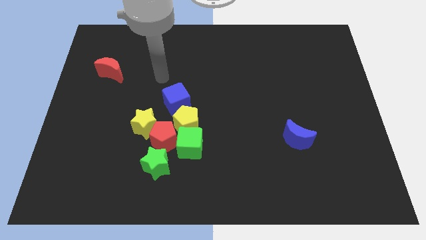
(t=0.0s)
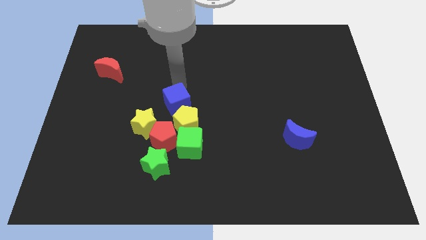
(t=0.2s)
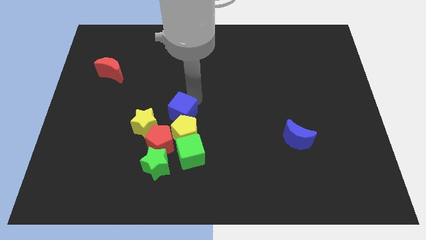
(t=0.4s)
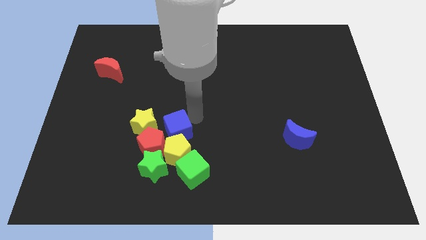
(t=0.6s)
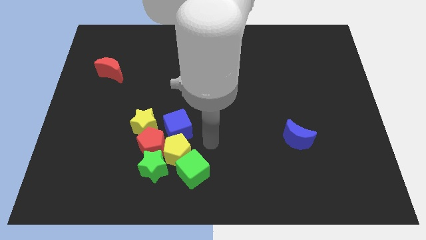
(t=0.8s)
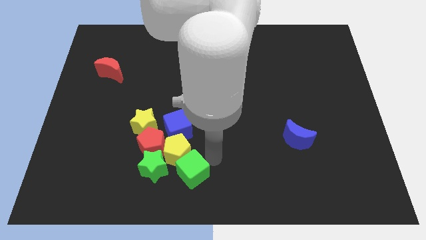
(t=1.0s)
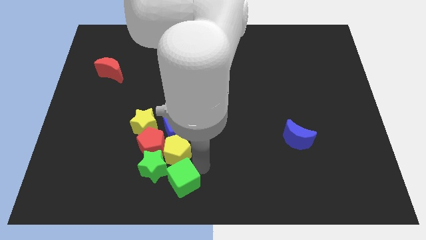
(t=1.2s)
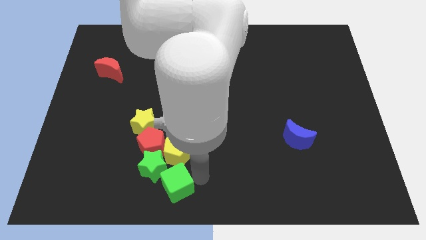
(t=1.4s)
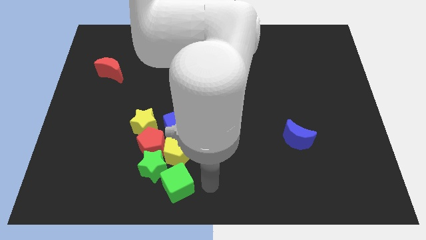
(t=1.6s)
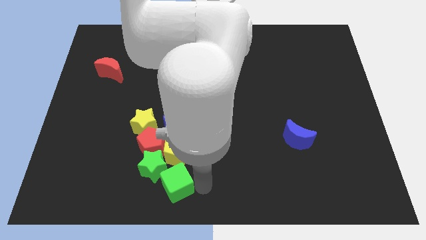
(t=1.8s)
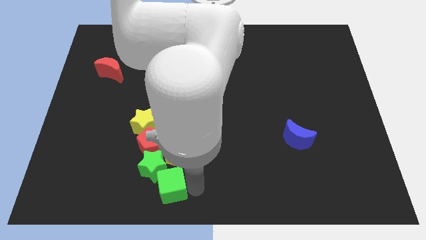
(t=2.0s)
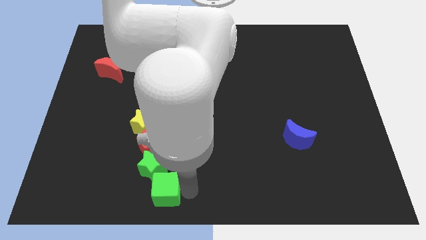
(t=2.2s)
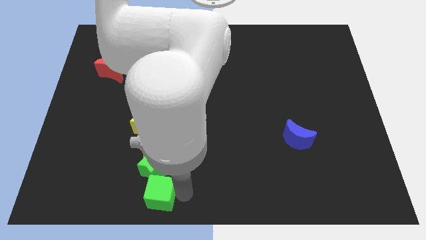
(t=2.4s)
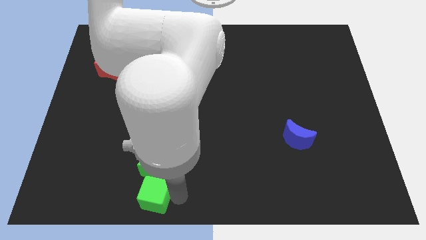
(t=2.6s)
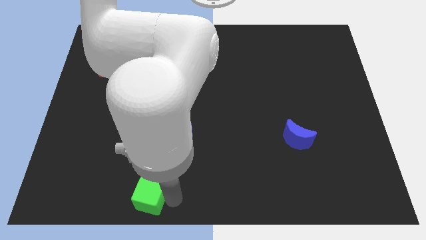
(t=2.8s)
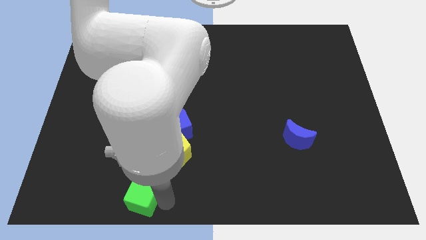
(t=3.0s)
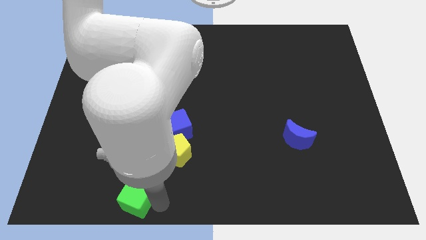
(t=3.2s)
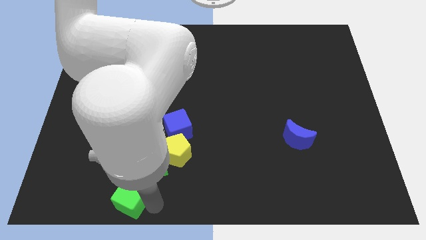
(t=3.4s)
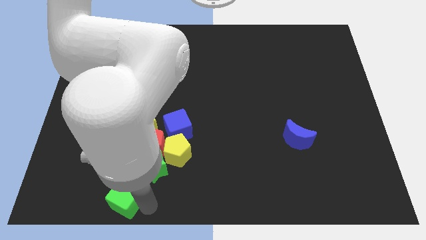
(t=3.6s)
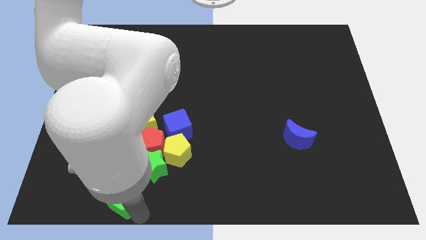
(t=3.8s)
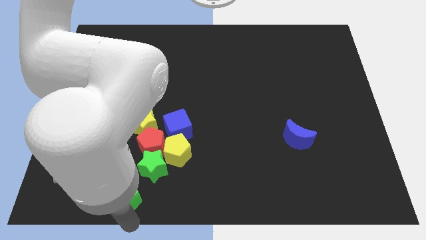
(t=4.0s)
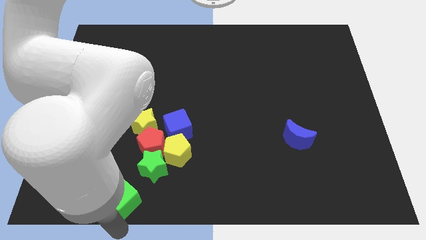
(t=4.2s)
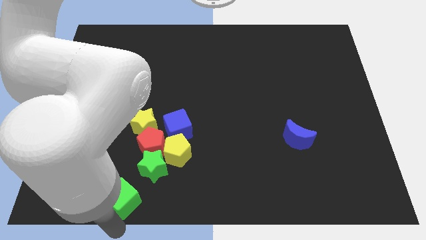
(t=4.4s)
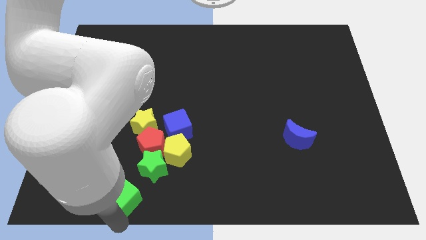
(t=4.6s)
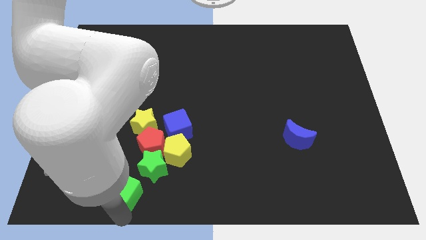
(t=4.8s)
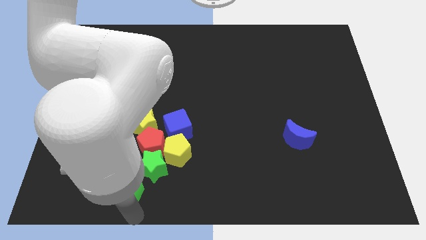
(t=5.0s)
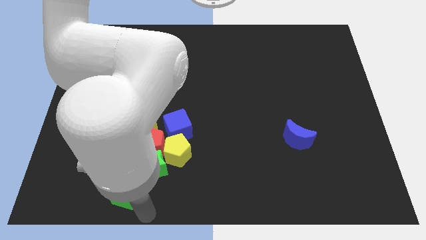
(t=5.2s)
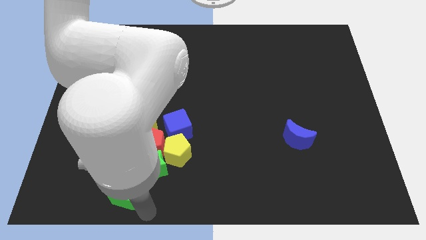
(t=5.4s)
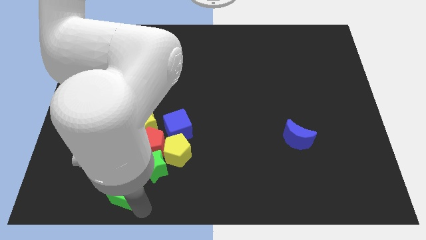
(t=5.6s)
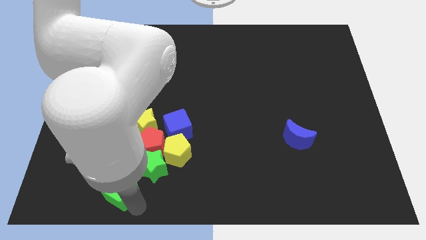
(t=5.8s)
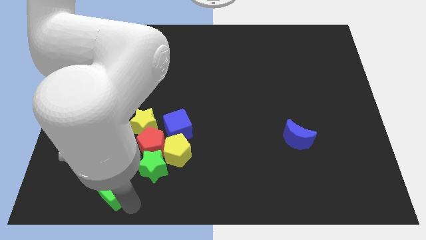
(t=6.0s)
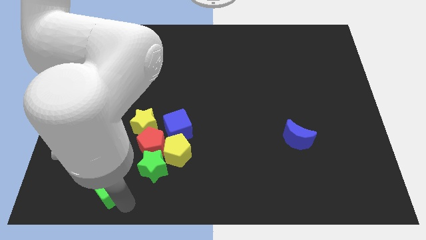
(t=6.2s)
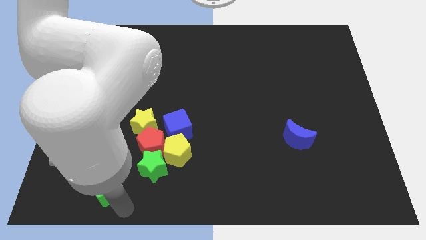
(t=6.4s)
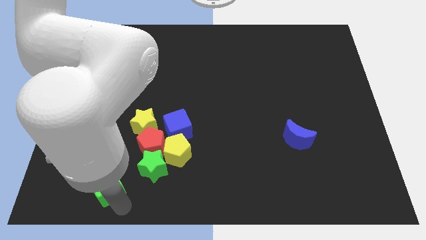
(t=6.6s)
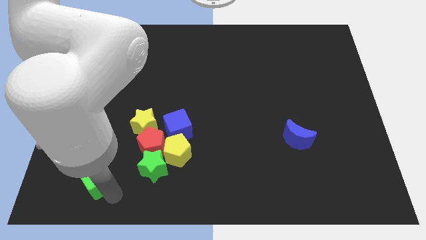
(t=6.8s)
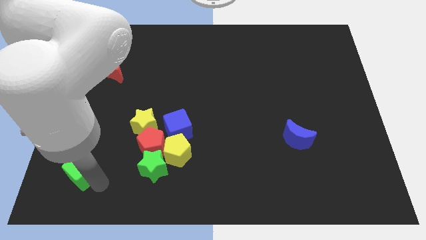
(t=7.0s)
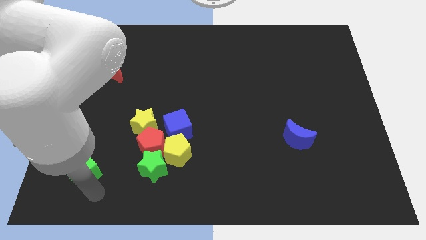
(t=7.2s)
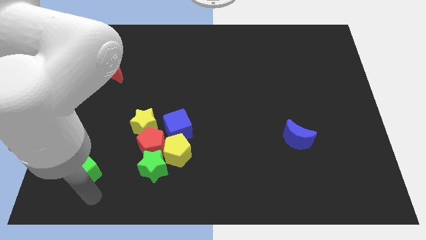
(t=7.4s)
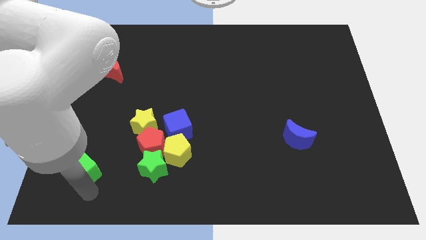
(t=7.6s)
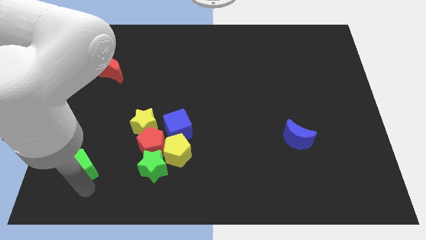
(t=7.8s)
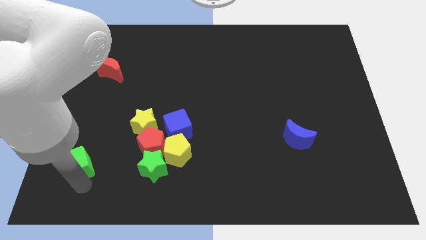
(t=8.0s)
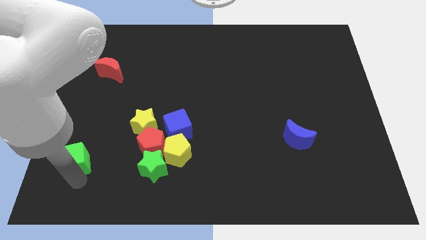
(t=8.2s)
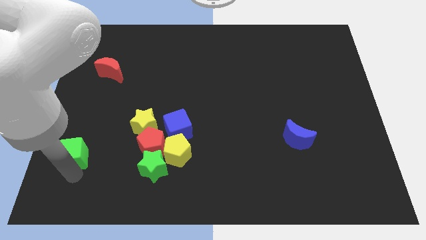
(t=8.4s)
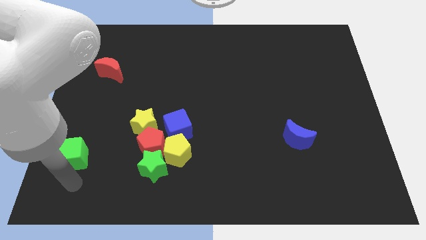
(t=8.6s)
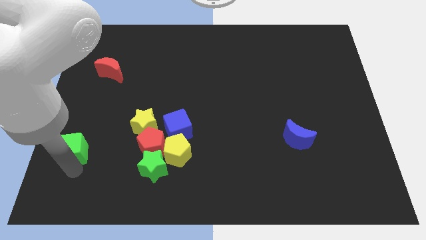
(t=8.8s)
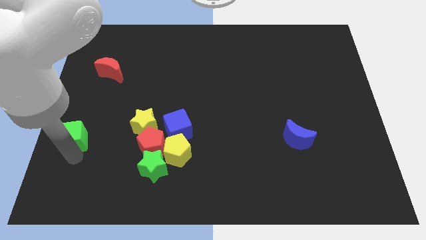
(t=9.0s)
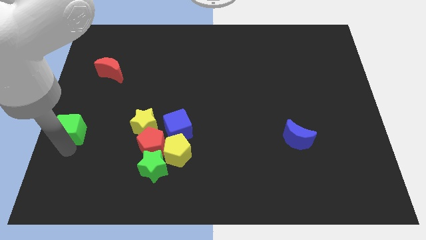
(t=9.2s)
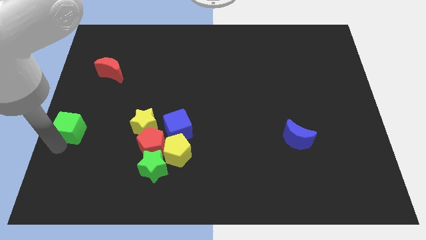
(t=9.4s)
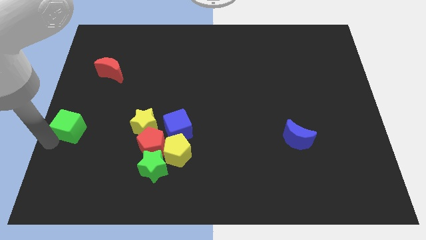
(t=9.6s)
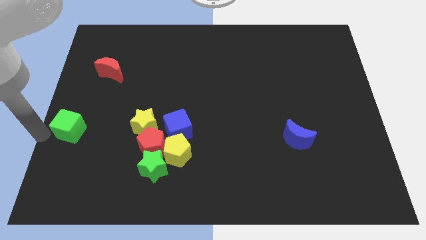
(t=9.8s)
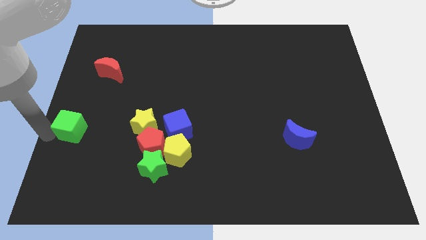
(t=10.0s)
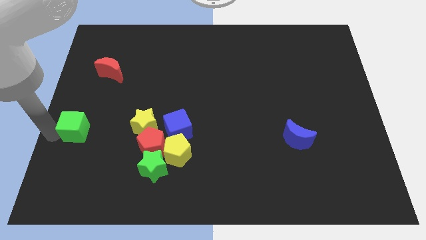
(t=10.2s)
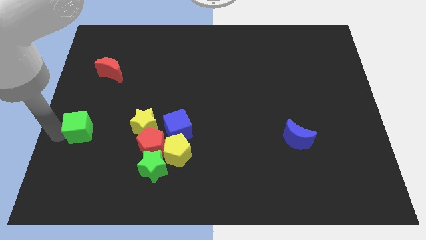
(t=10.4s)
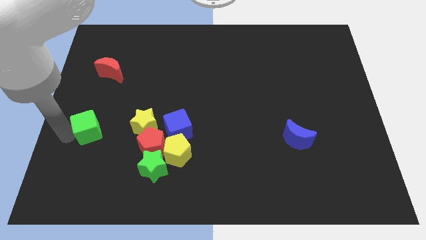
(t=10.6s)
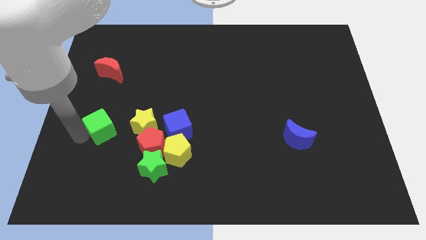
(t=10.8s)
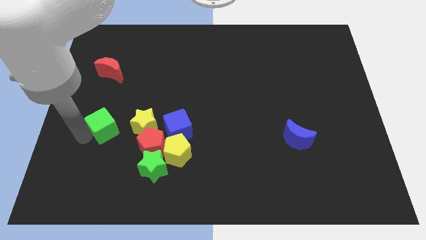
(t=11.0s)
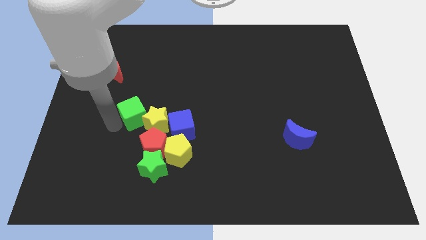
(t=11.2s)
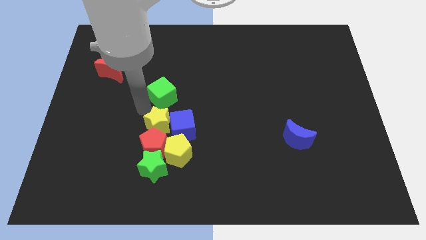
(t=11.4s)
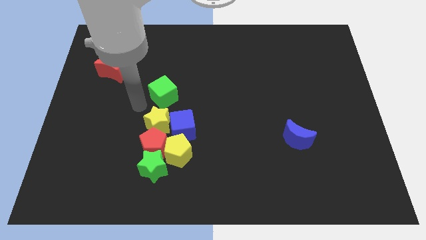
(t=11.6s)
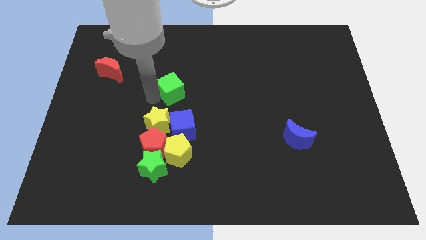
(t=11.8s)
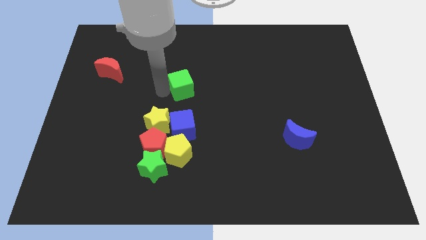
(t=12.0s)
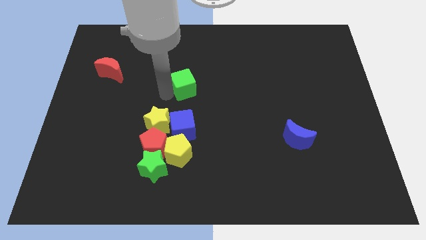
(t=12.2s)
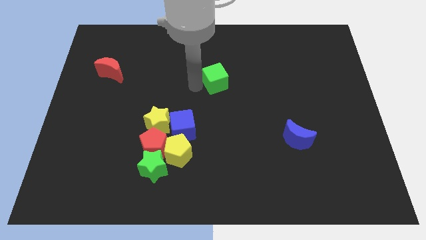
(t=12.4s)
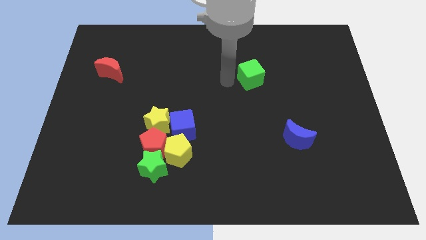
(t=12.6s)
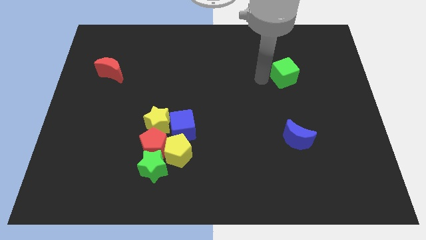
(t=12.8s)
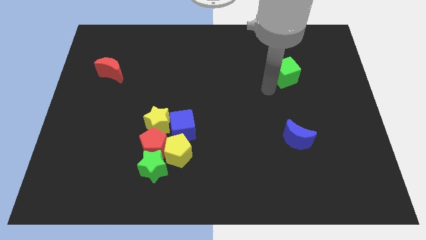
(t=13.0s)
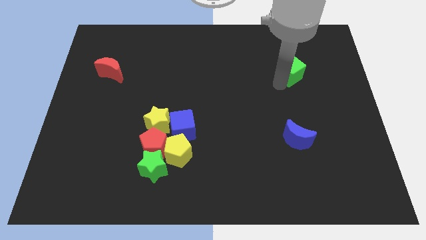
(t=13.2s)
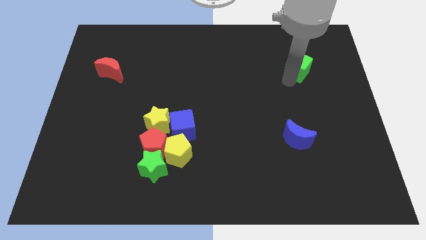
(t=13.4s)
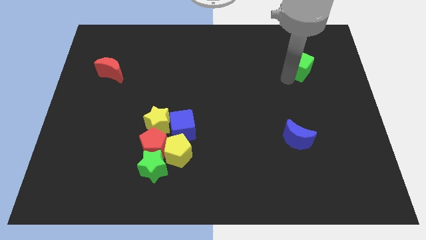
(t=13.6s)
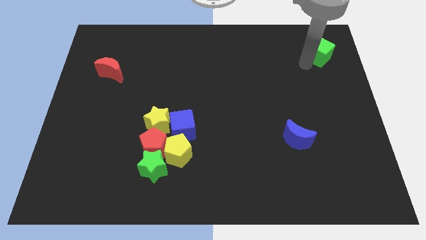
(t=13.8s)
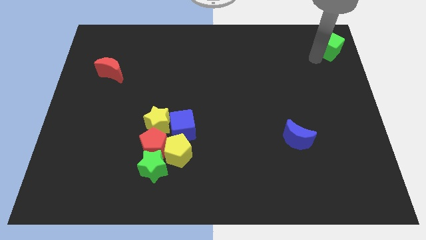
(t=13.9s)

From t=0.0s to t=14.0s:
push the green cube to the top right of the board
